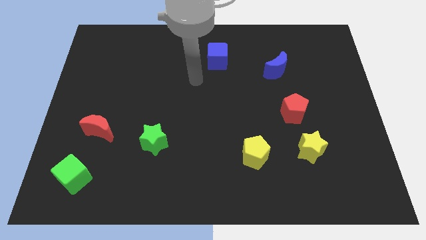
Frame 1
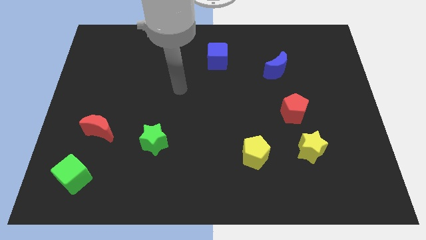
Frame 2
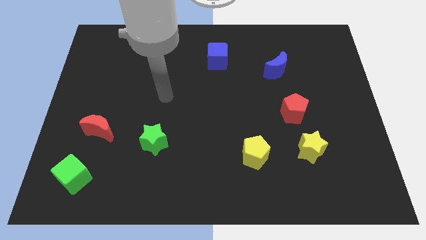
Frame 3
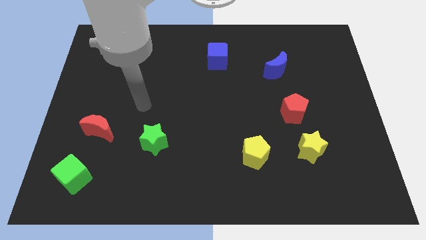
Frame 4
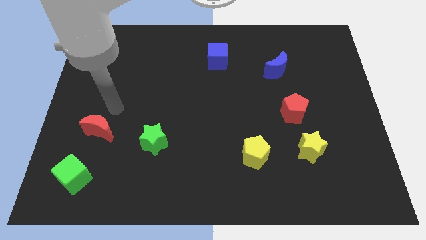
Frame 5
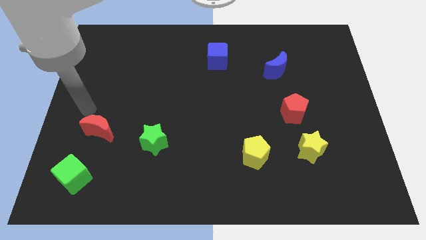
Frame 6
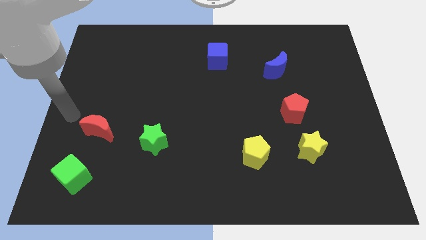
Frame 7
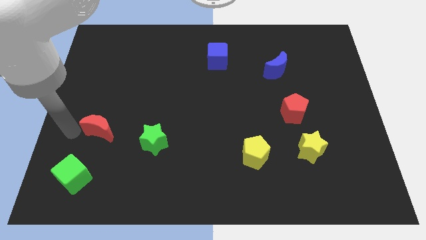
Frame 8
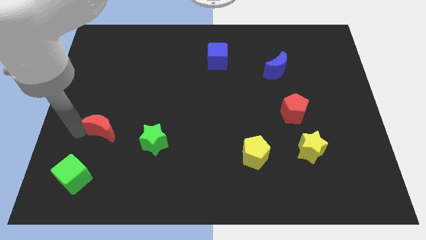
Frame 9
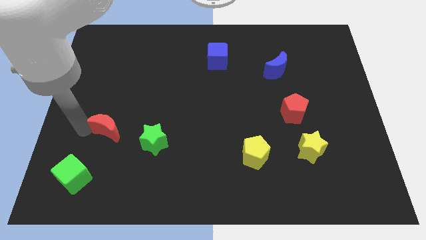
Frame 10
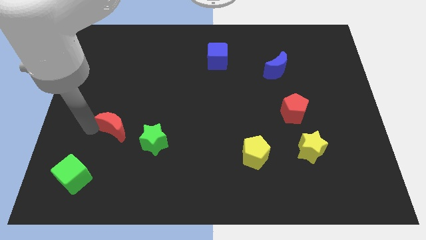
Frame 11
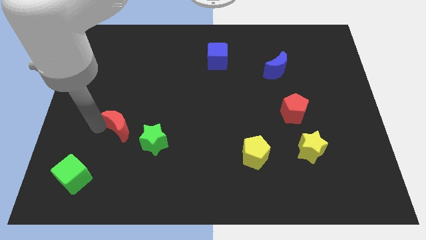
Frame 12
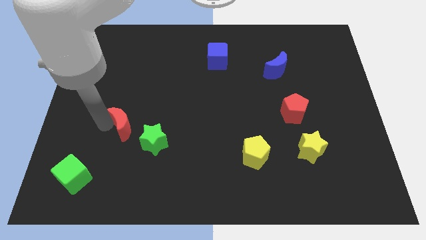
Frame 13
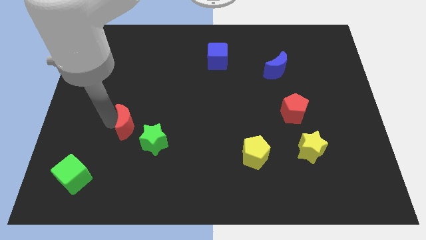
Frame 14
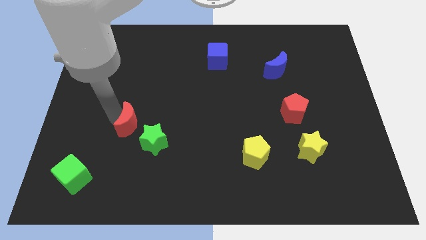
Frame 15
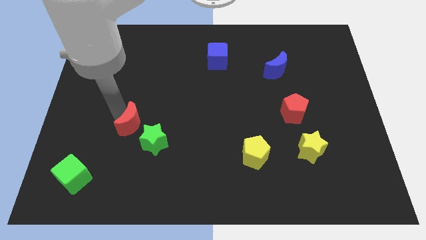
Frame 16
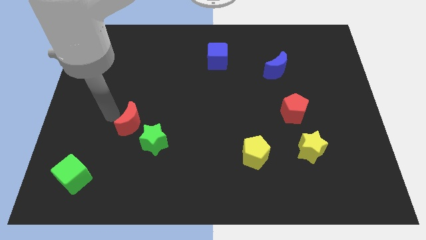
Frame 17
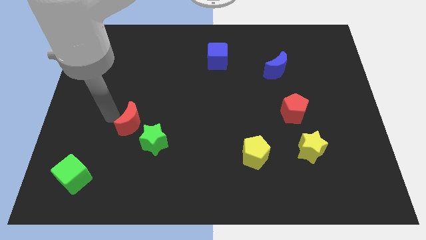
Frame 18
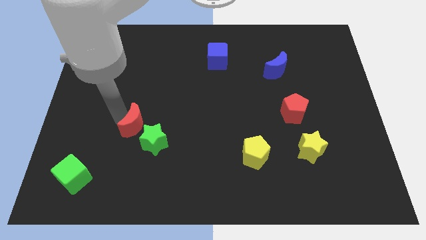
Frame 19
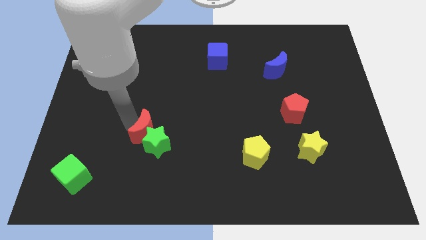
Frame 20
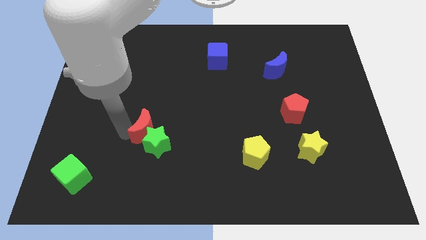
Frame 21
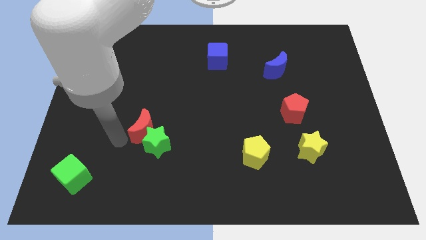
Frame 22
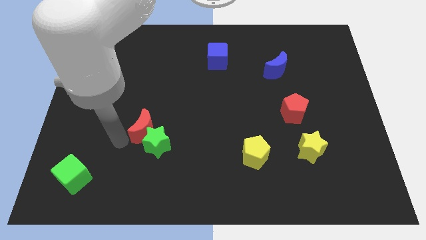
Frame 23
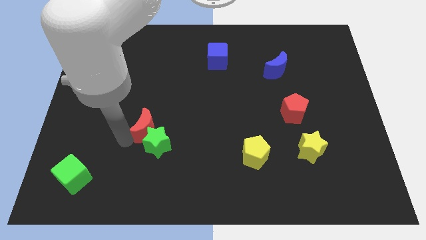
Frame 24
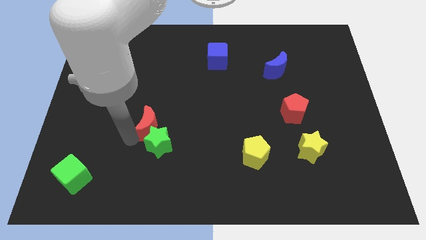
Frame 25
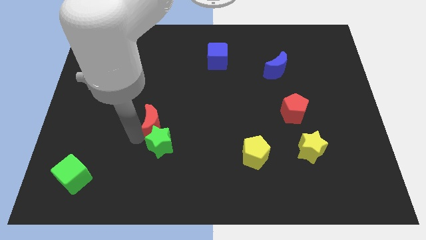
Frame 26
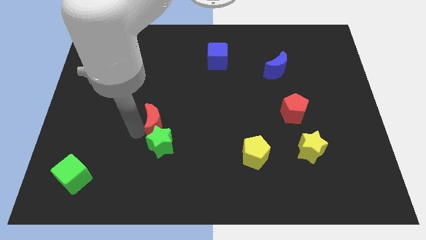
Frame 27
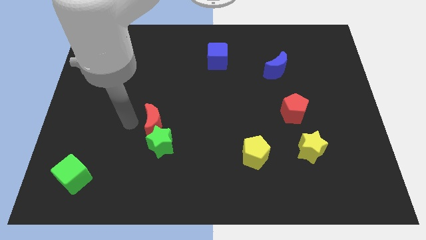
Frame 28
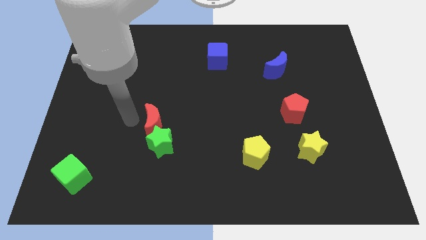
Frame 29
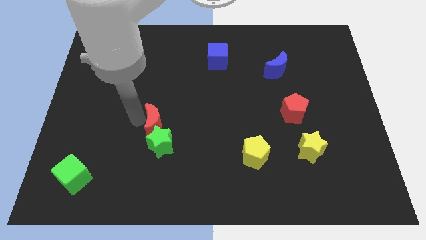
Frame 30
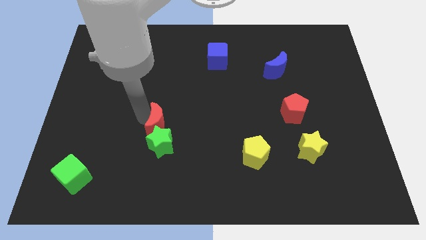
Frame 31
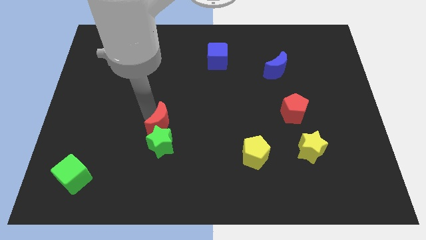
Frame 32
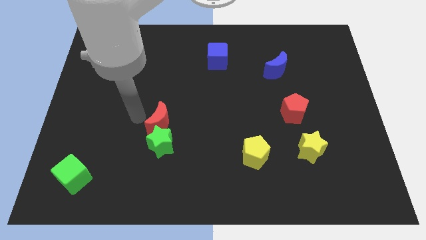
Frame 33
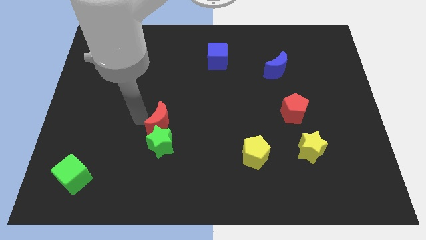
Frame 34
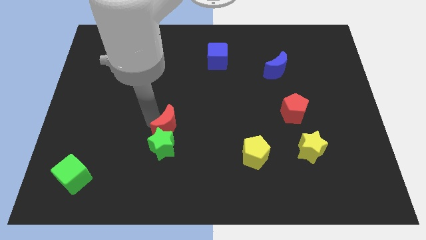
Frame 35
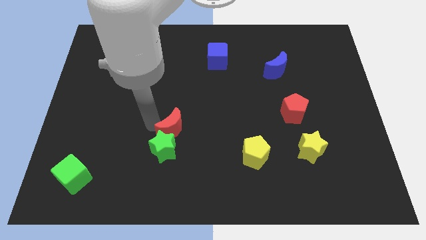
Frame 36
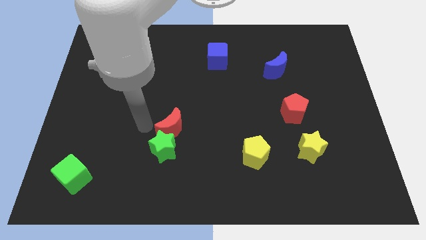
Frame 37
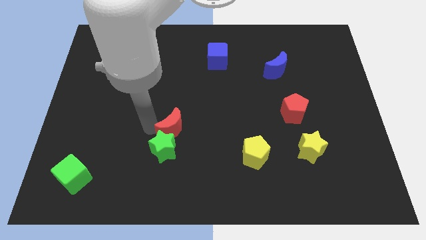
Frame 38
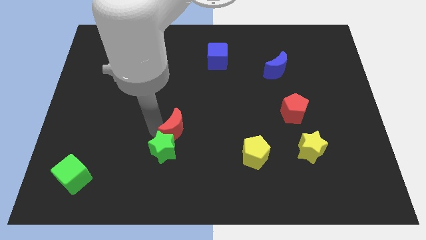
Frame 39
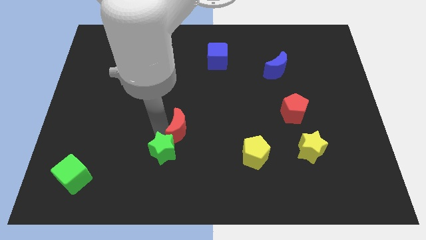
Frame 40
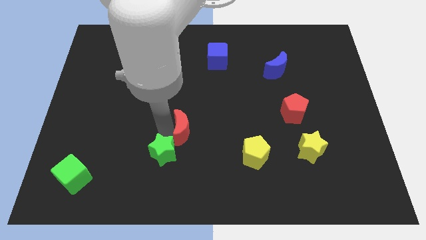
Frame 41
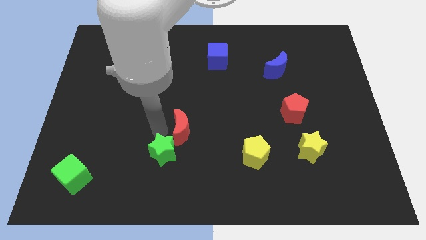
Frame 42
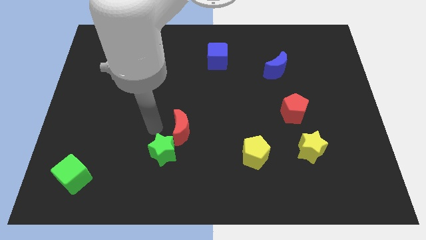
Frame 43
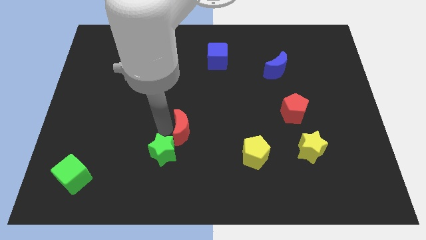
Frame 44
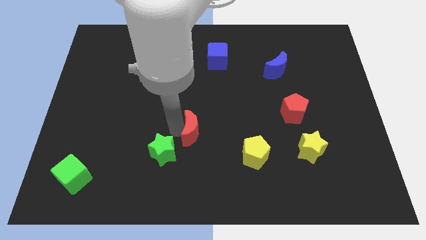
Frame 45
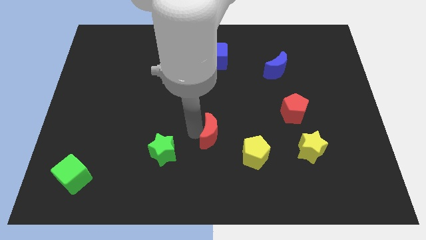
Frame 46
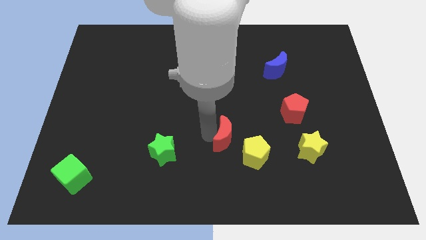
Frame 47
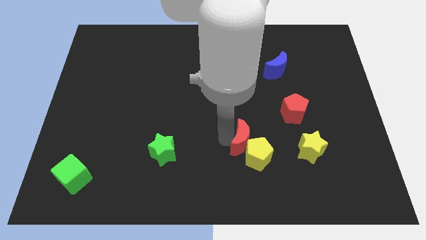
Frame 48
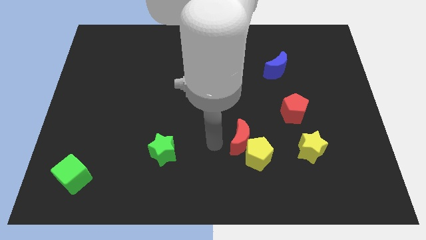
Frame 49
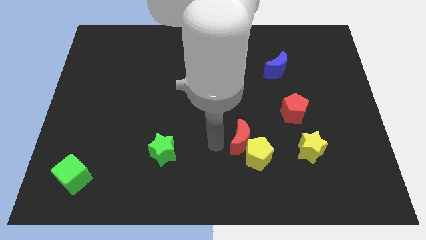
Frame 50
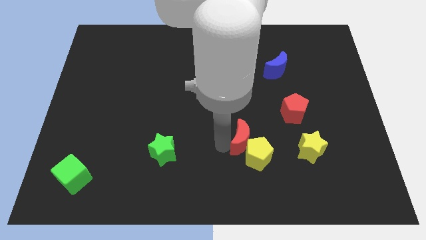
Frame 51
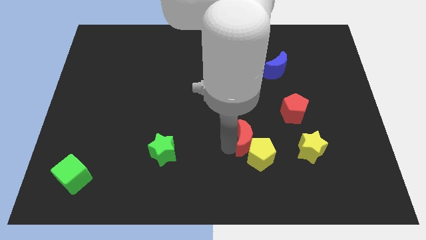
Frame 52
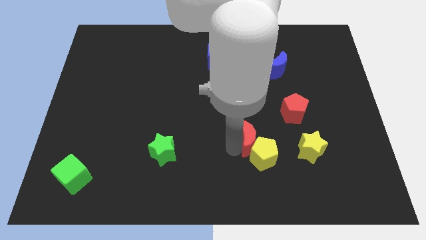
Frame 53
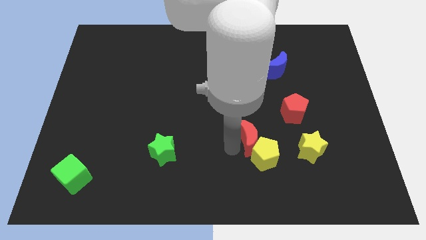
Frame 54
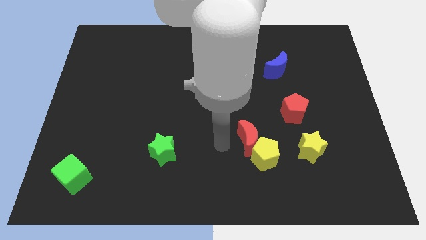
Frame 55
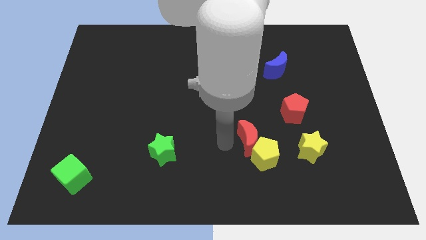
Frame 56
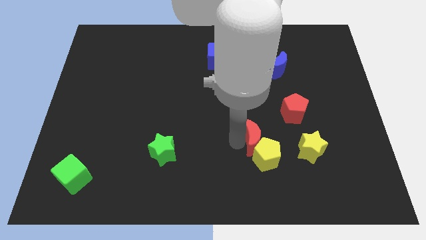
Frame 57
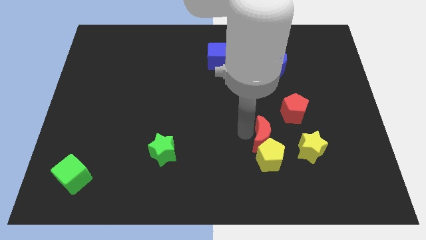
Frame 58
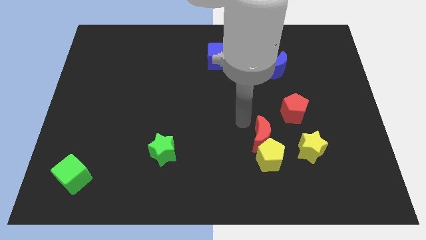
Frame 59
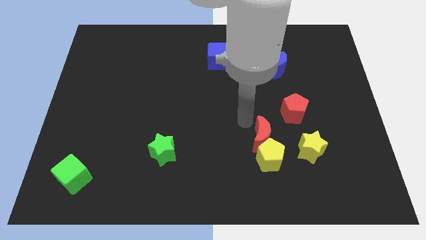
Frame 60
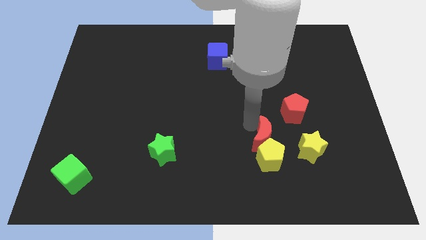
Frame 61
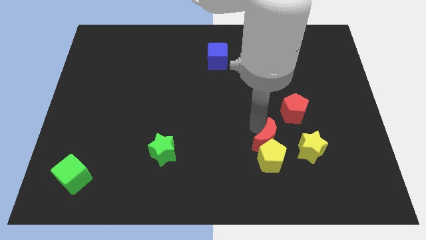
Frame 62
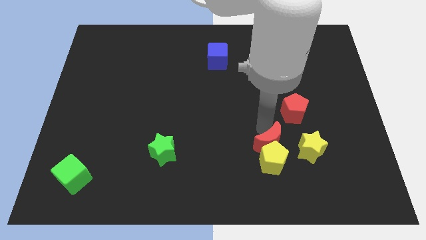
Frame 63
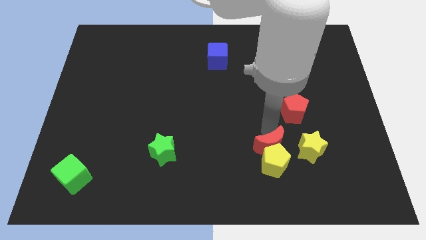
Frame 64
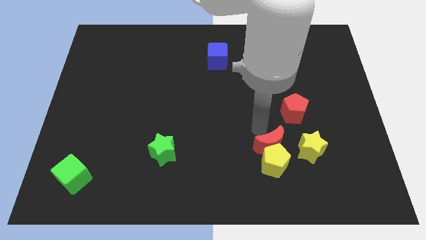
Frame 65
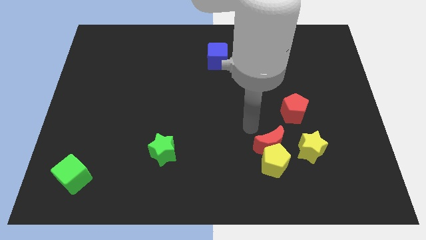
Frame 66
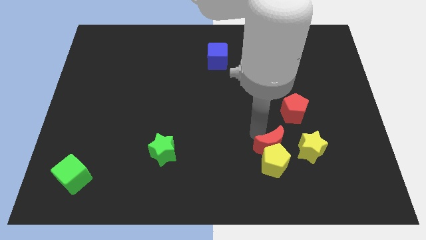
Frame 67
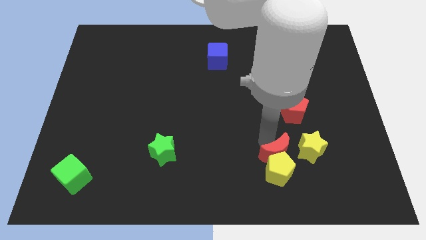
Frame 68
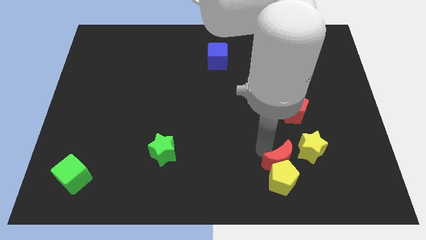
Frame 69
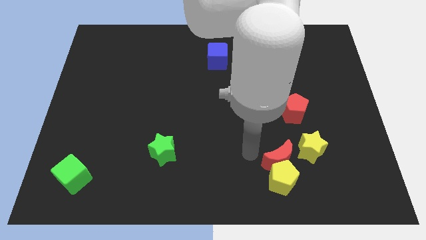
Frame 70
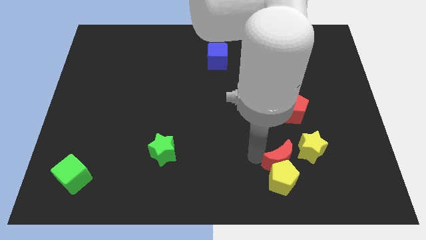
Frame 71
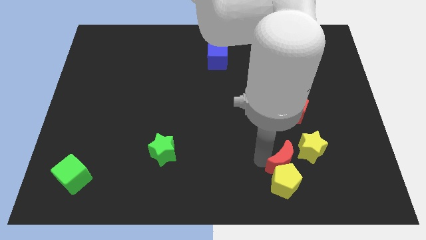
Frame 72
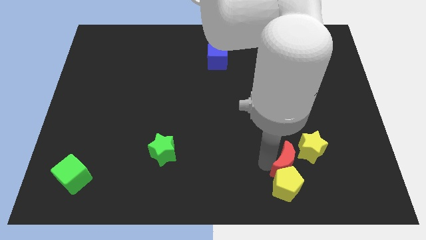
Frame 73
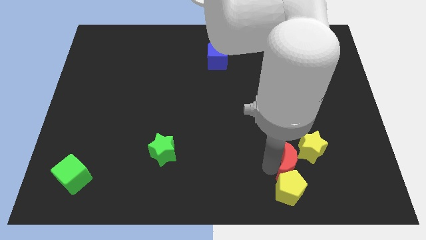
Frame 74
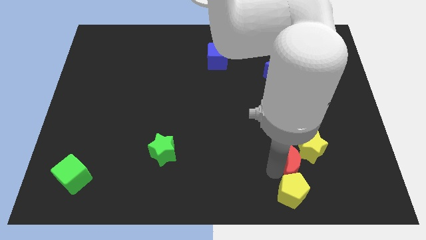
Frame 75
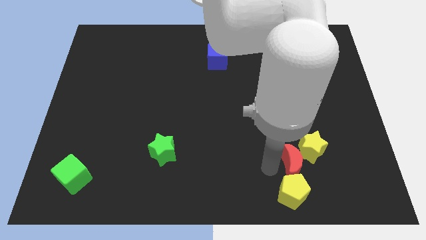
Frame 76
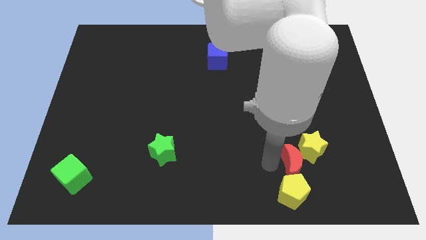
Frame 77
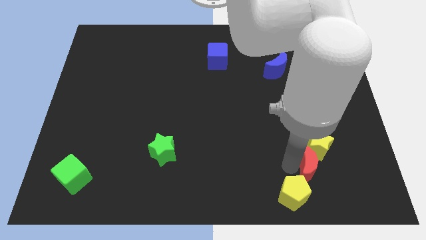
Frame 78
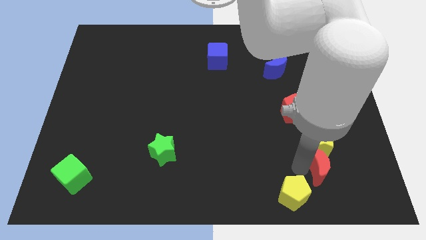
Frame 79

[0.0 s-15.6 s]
slide the red moon diagonally down and to the right of the yellow star
